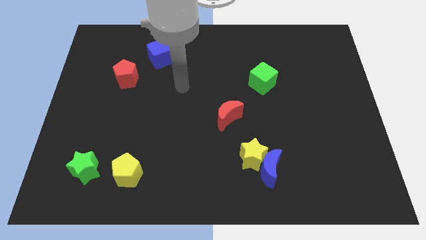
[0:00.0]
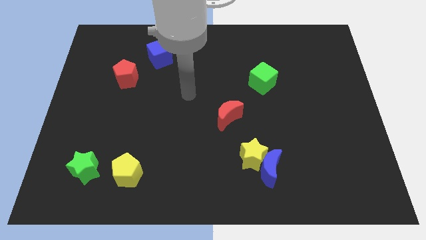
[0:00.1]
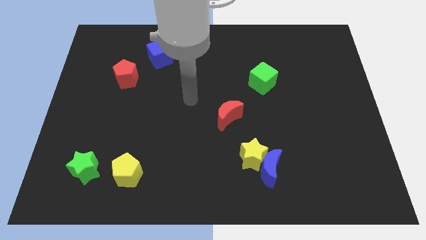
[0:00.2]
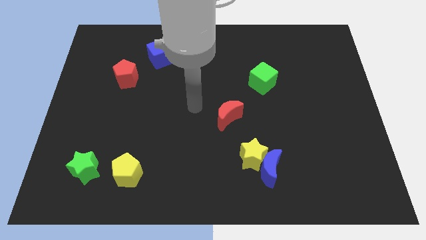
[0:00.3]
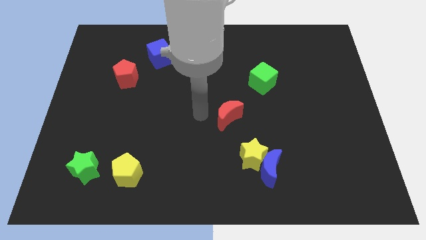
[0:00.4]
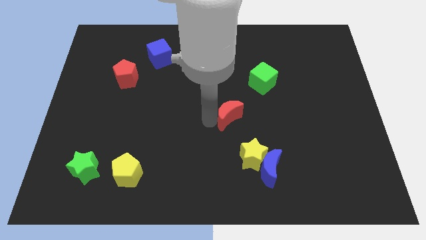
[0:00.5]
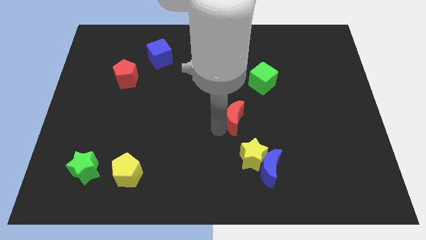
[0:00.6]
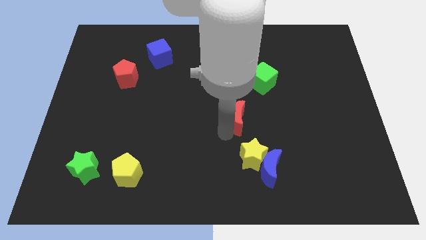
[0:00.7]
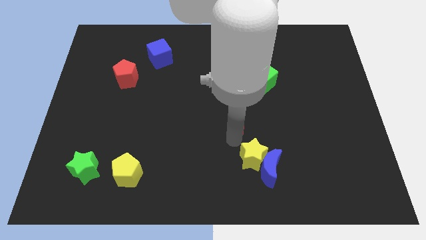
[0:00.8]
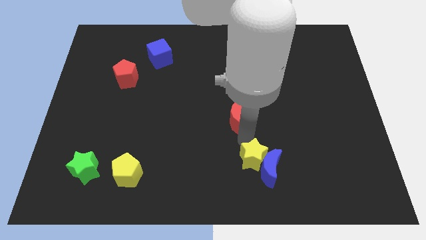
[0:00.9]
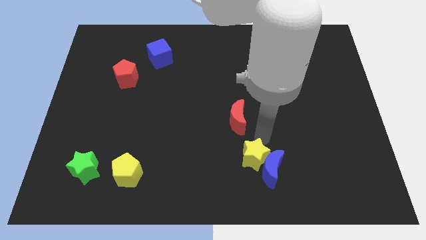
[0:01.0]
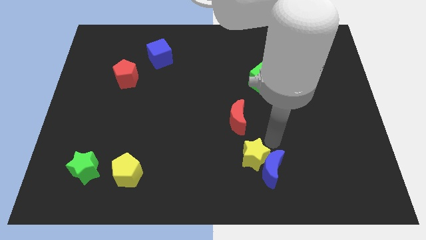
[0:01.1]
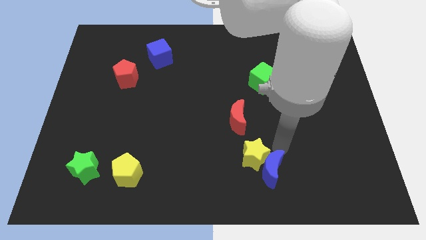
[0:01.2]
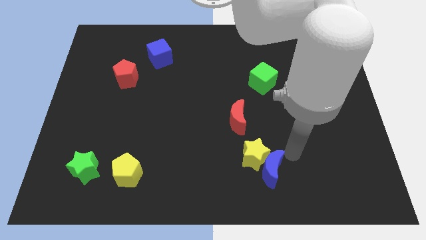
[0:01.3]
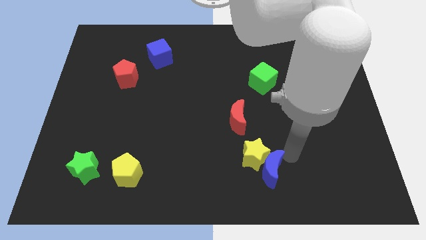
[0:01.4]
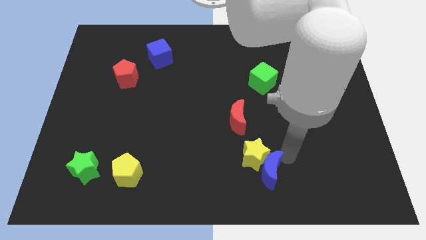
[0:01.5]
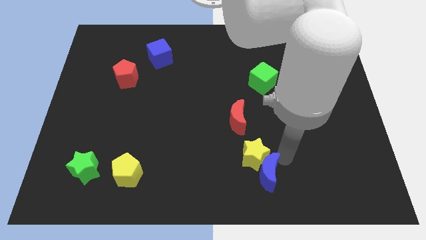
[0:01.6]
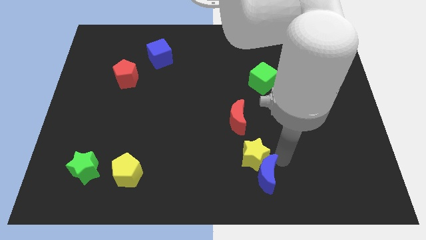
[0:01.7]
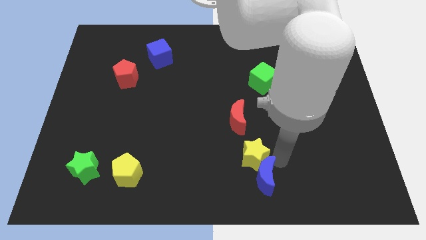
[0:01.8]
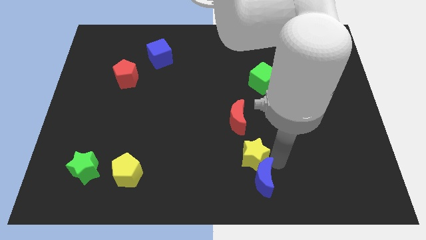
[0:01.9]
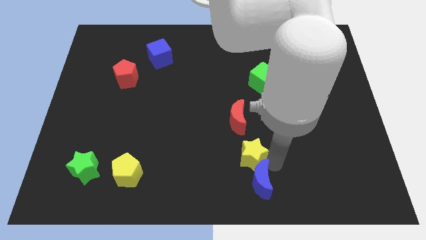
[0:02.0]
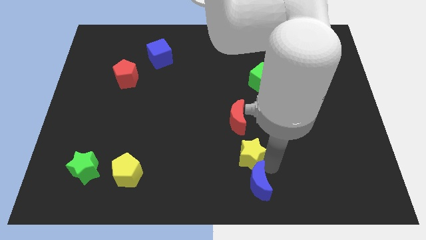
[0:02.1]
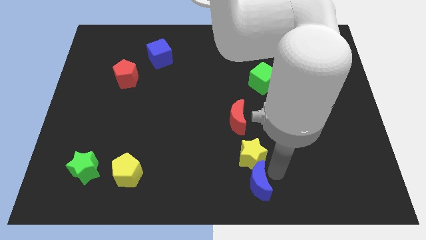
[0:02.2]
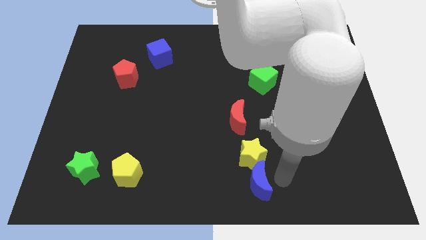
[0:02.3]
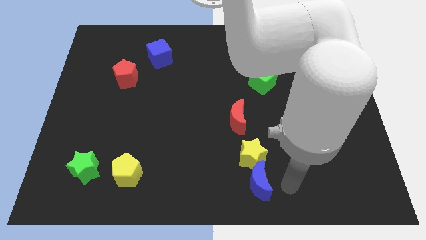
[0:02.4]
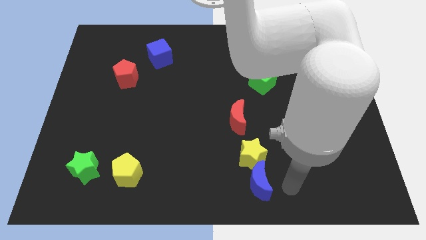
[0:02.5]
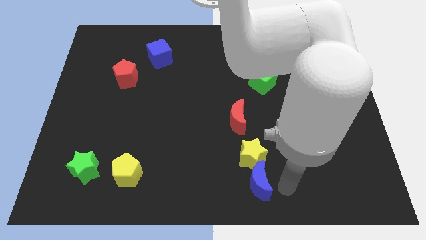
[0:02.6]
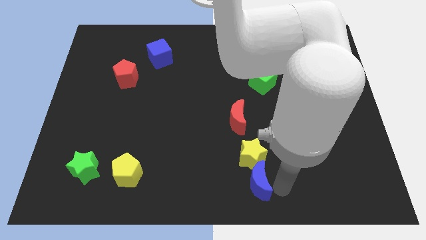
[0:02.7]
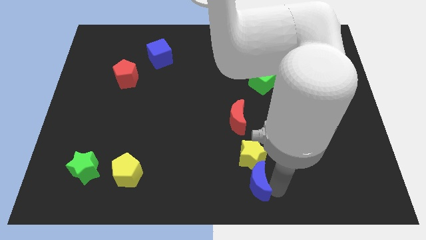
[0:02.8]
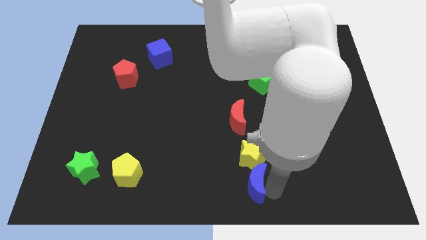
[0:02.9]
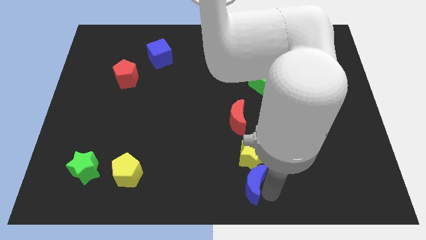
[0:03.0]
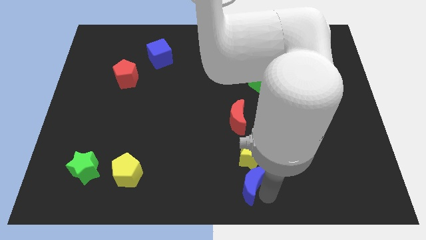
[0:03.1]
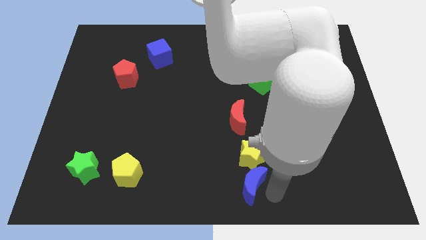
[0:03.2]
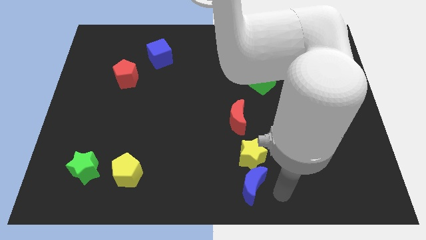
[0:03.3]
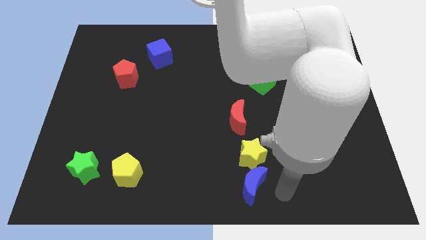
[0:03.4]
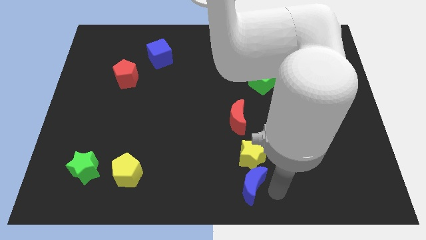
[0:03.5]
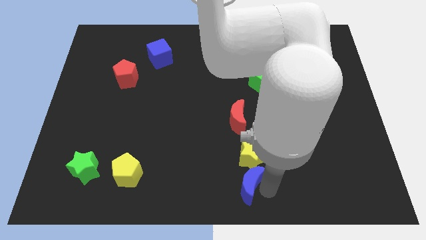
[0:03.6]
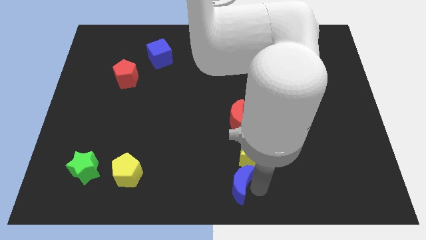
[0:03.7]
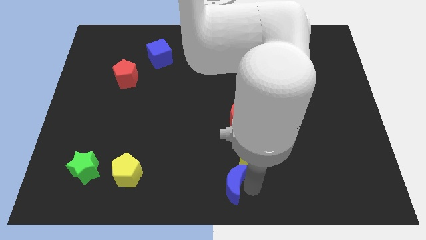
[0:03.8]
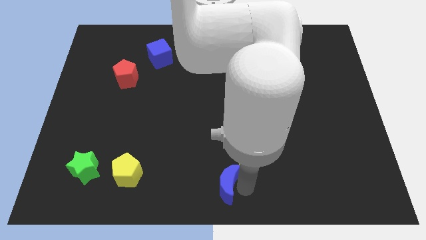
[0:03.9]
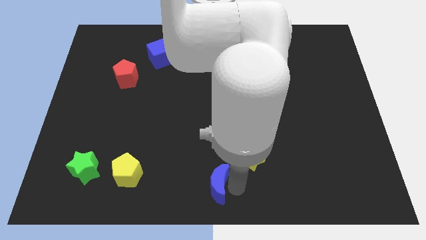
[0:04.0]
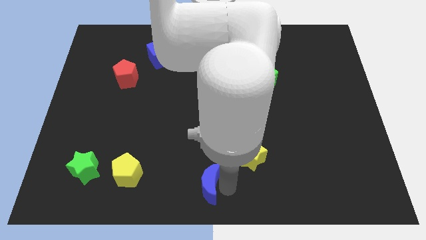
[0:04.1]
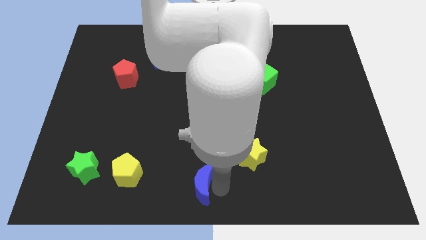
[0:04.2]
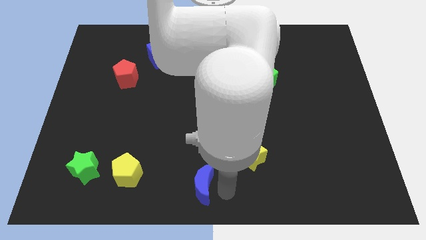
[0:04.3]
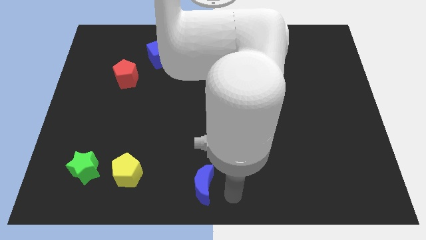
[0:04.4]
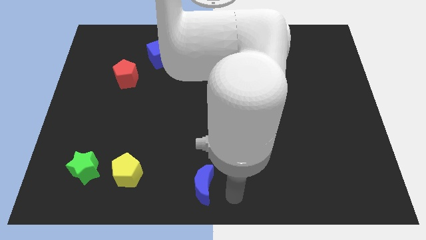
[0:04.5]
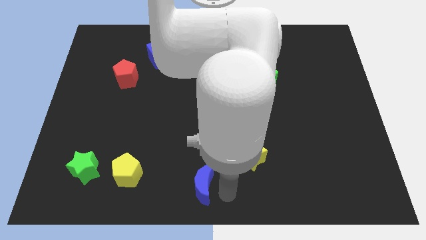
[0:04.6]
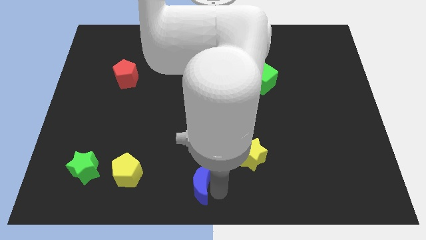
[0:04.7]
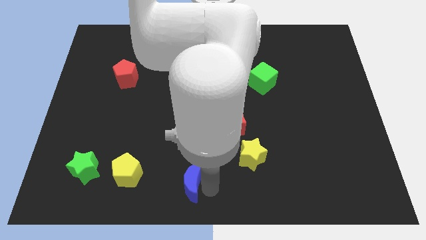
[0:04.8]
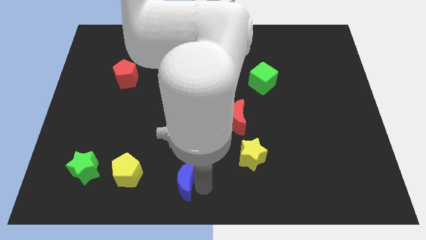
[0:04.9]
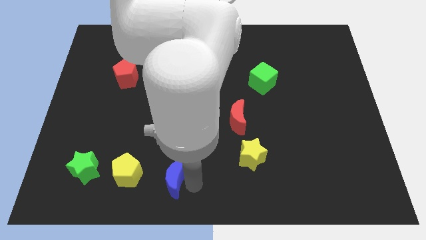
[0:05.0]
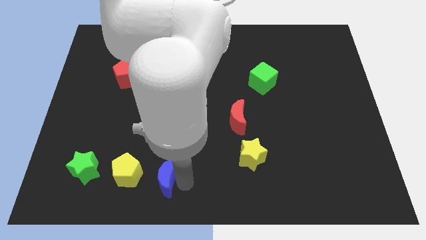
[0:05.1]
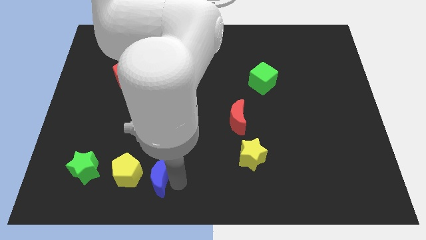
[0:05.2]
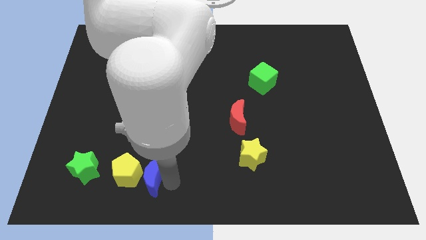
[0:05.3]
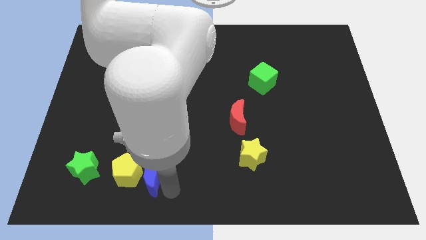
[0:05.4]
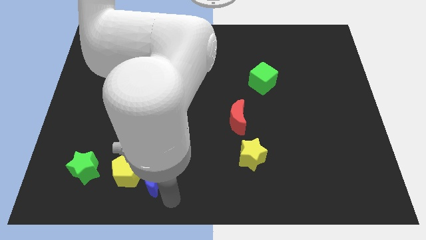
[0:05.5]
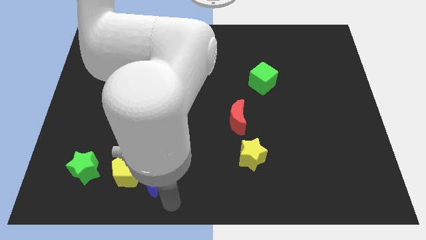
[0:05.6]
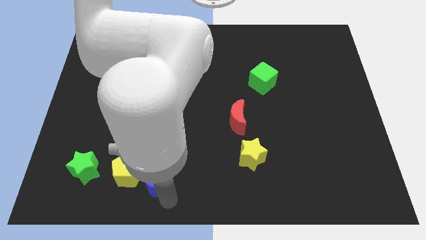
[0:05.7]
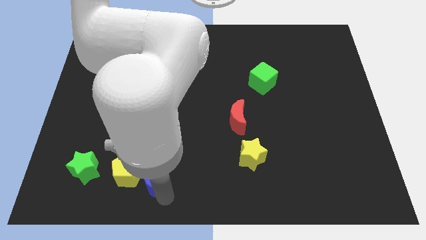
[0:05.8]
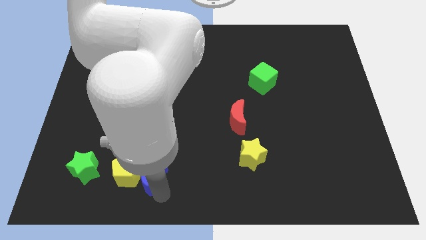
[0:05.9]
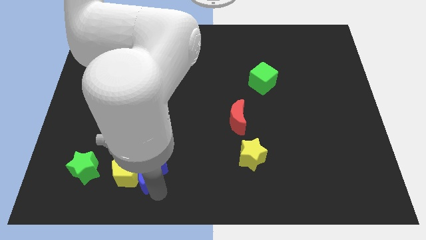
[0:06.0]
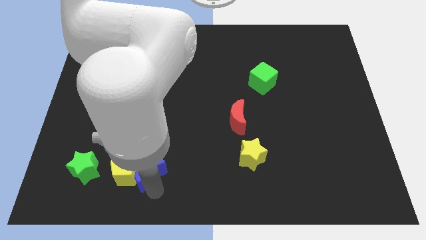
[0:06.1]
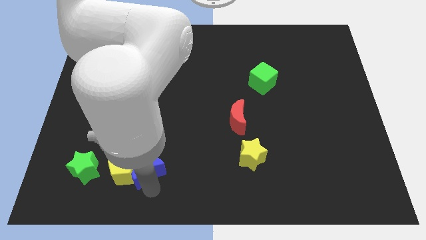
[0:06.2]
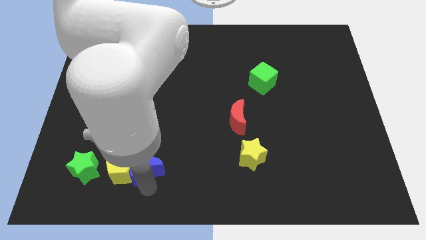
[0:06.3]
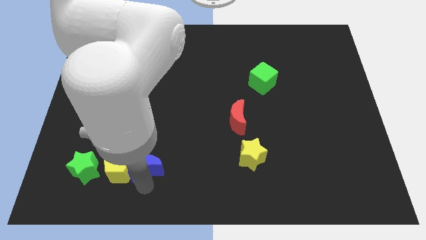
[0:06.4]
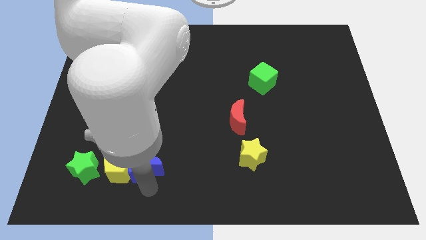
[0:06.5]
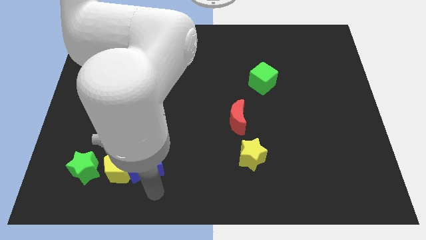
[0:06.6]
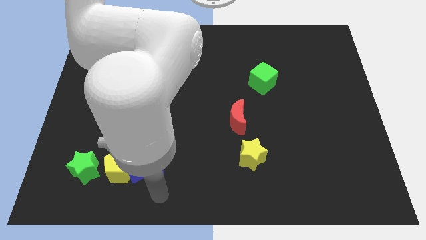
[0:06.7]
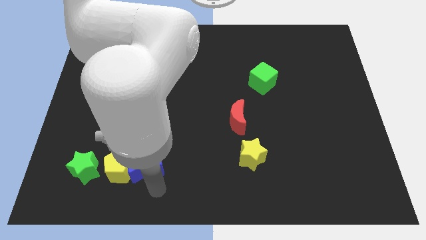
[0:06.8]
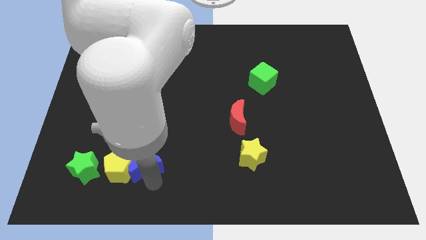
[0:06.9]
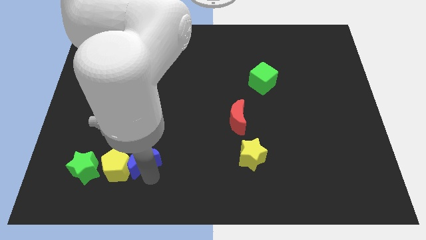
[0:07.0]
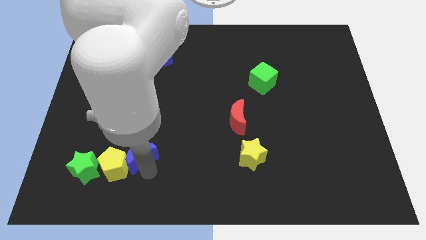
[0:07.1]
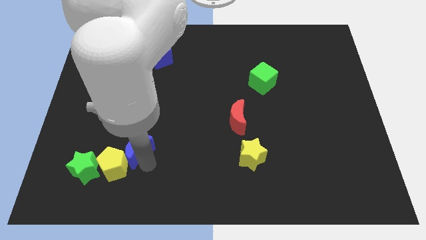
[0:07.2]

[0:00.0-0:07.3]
slide the blue moon to the top right of the green star

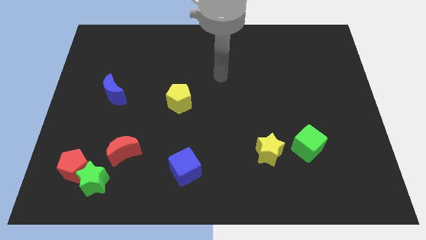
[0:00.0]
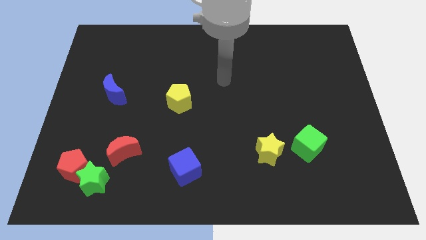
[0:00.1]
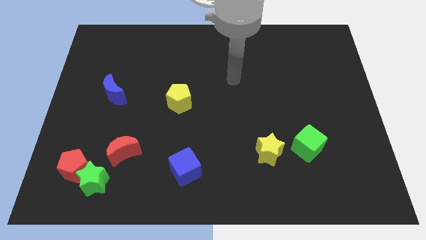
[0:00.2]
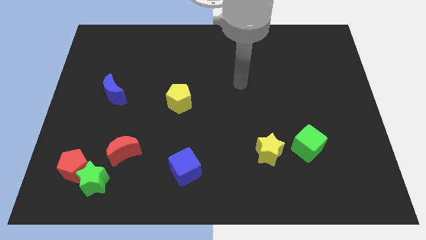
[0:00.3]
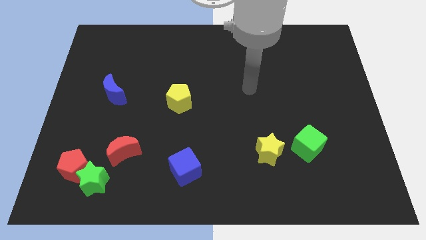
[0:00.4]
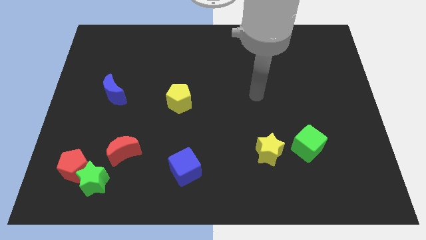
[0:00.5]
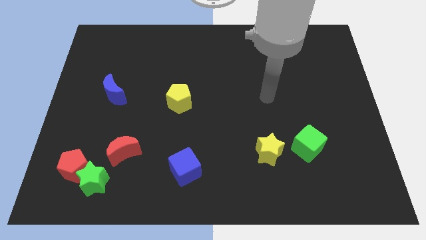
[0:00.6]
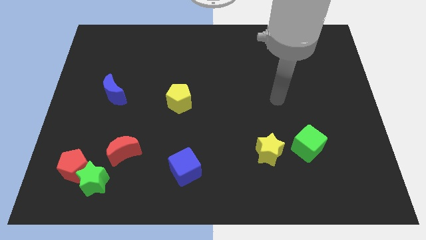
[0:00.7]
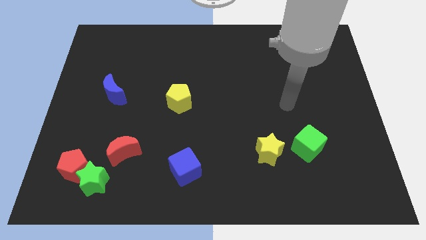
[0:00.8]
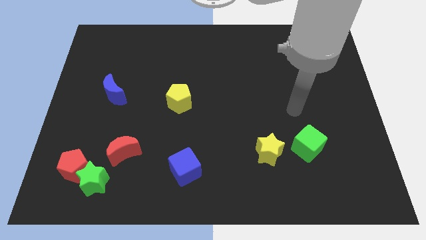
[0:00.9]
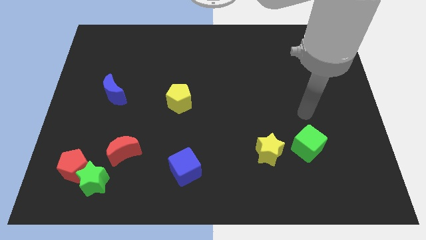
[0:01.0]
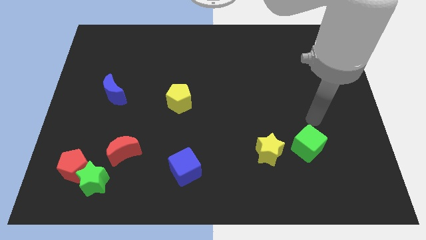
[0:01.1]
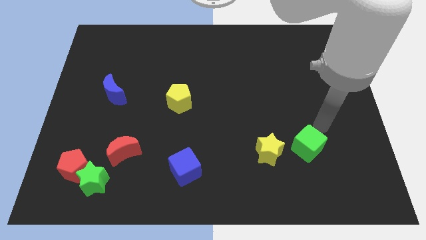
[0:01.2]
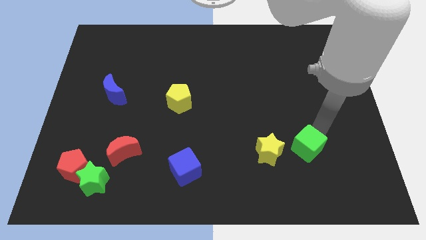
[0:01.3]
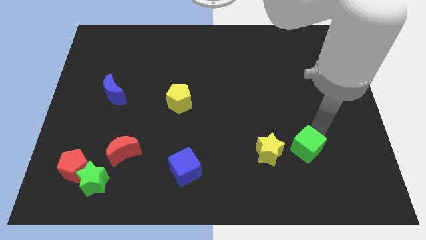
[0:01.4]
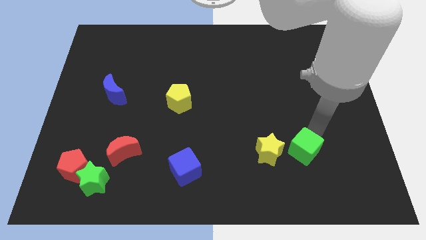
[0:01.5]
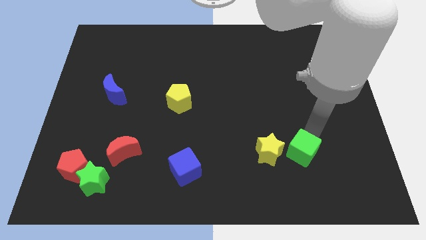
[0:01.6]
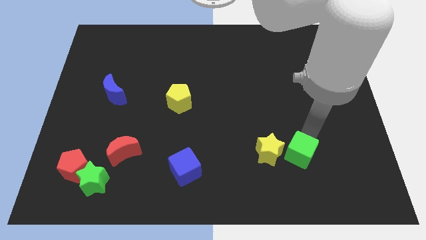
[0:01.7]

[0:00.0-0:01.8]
move the green cube to the bottom right side of the yellow star
